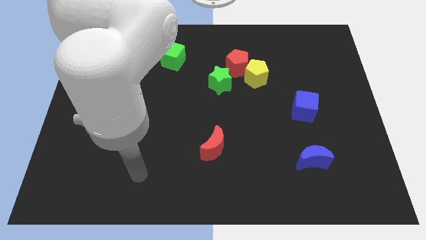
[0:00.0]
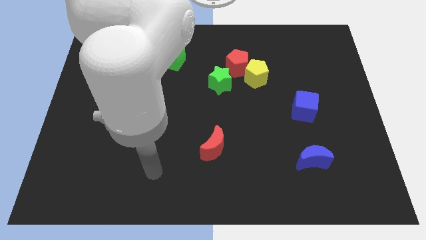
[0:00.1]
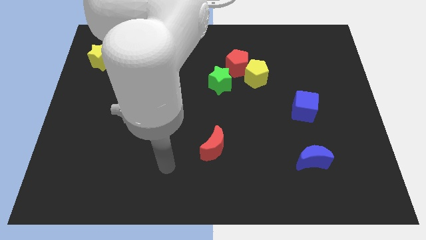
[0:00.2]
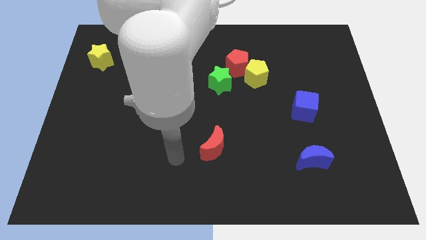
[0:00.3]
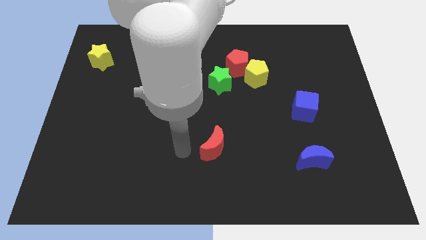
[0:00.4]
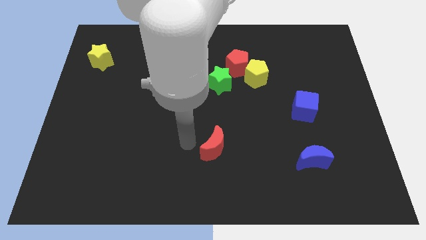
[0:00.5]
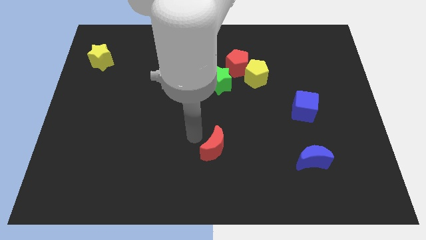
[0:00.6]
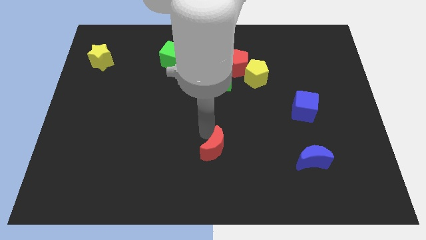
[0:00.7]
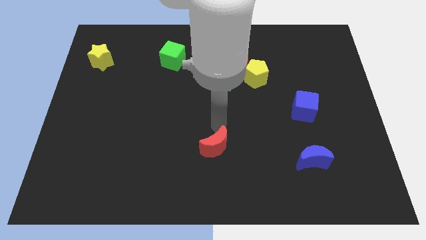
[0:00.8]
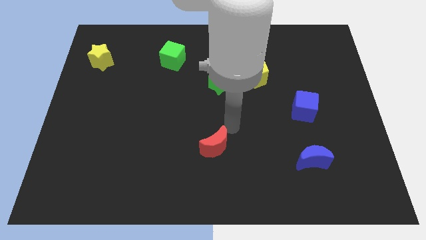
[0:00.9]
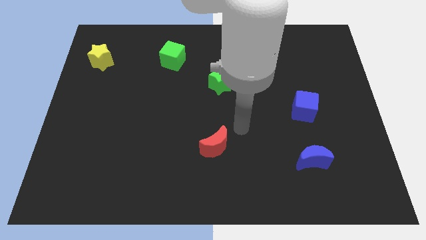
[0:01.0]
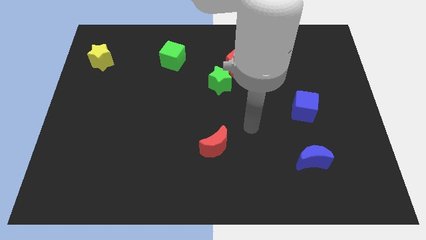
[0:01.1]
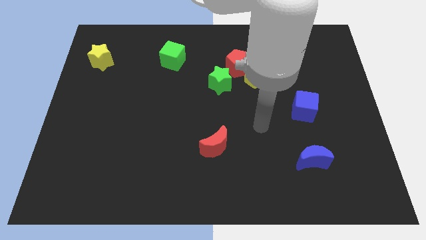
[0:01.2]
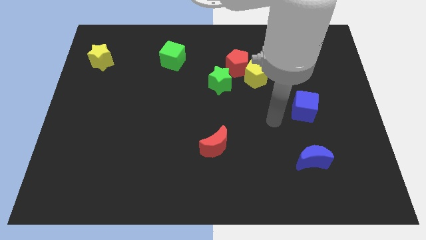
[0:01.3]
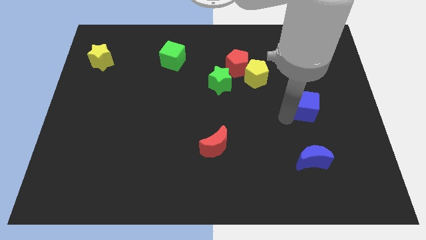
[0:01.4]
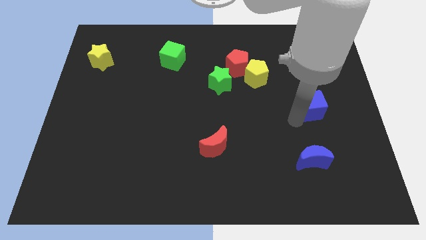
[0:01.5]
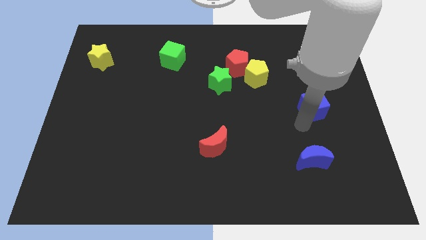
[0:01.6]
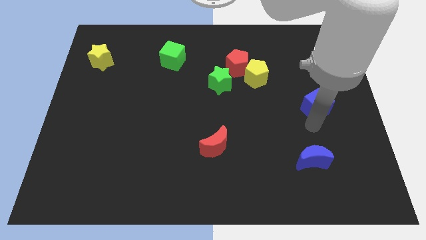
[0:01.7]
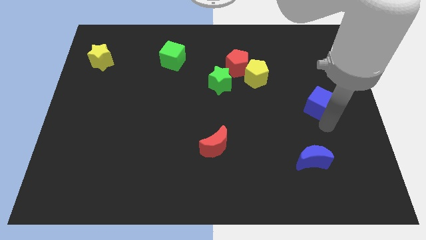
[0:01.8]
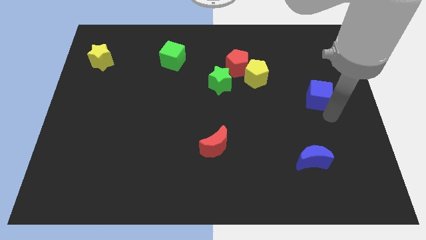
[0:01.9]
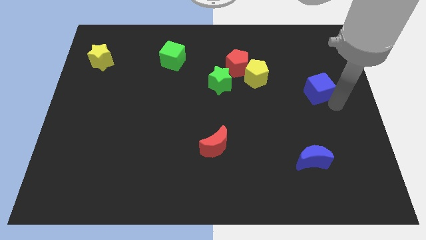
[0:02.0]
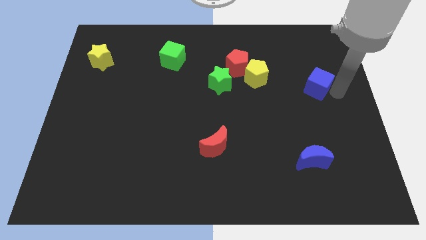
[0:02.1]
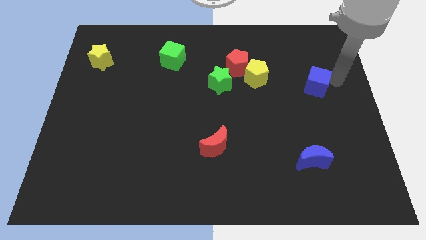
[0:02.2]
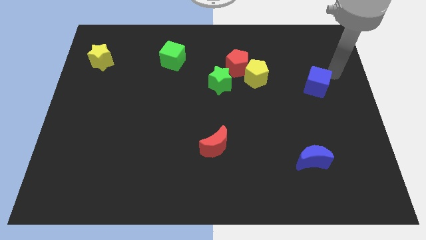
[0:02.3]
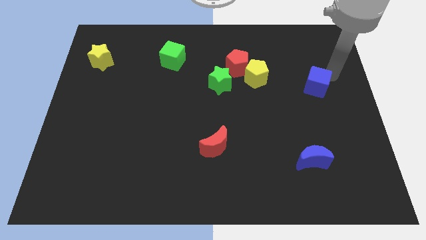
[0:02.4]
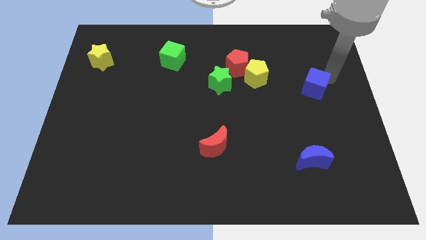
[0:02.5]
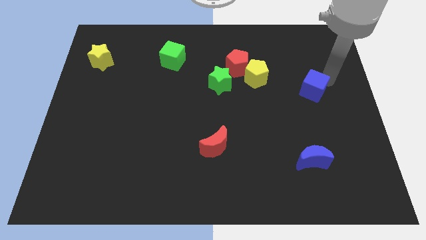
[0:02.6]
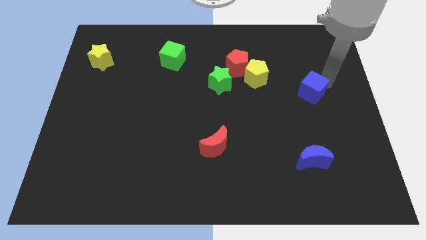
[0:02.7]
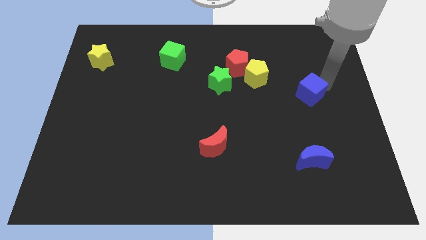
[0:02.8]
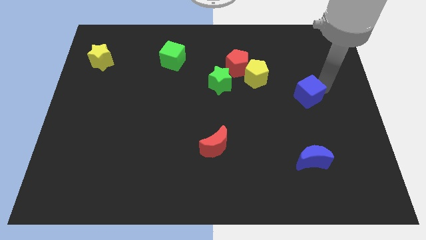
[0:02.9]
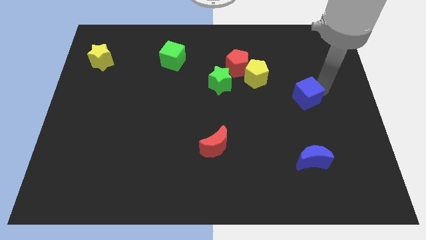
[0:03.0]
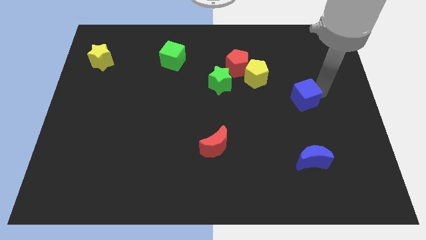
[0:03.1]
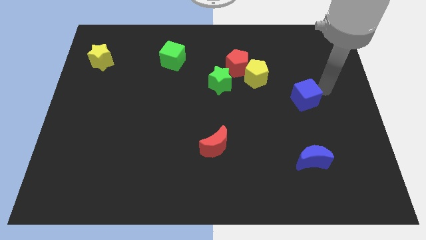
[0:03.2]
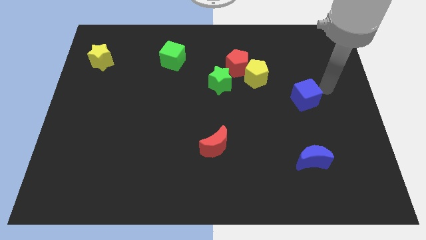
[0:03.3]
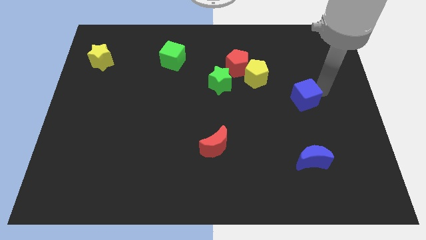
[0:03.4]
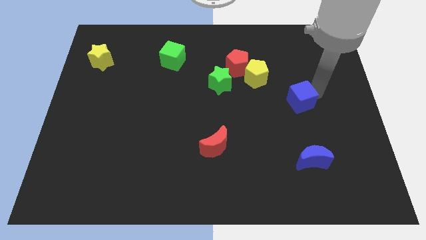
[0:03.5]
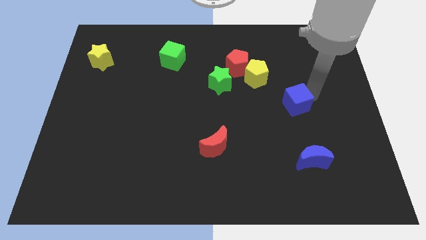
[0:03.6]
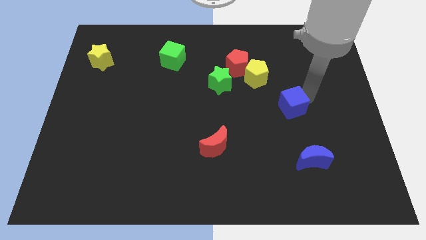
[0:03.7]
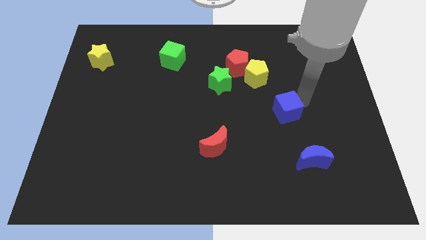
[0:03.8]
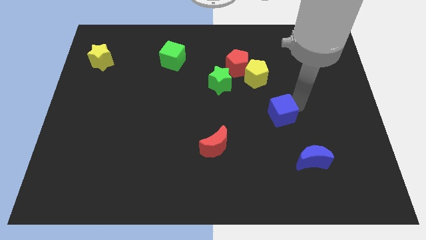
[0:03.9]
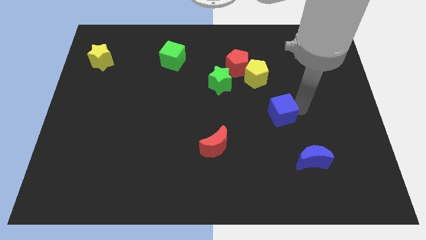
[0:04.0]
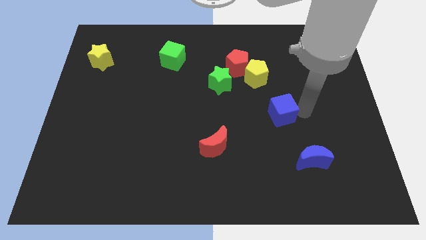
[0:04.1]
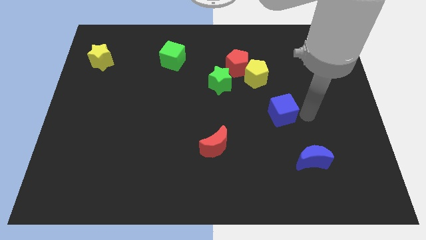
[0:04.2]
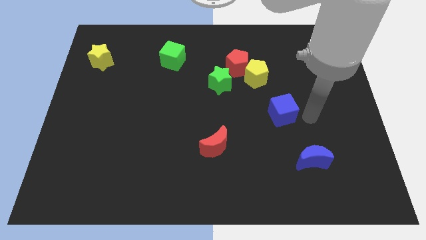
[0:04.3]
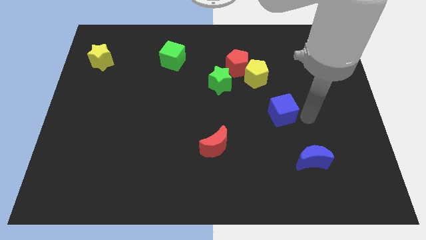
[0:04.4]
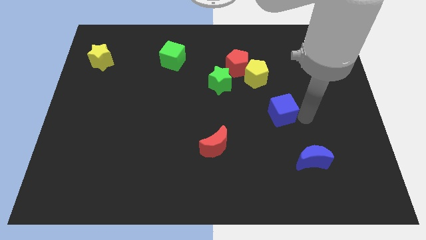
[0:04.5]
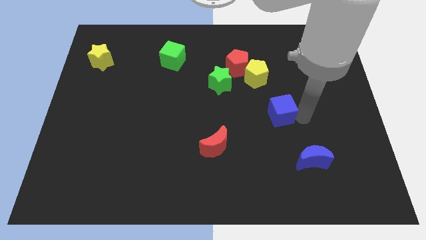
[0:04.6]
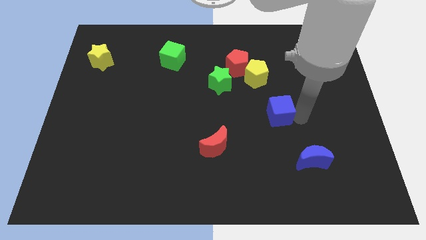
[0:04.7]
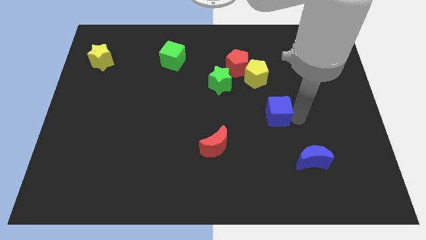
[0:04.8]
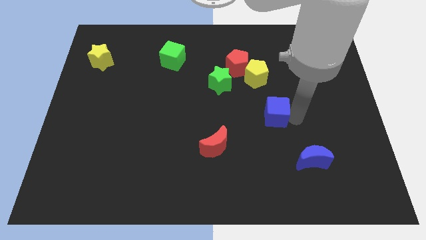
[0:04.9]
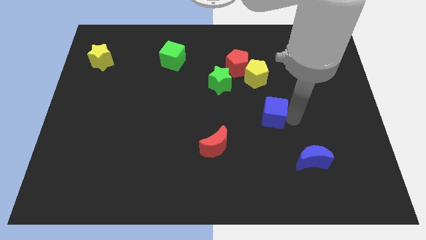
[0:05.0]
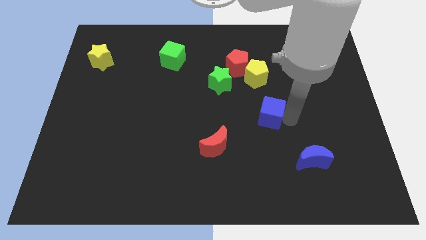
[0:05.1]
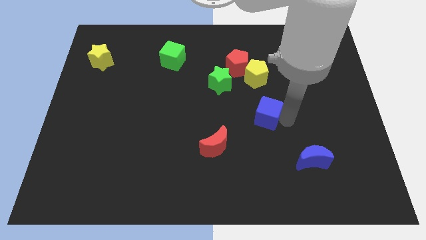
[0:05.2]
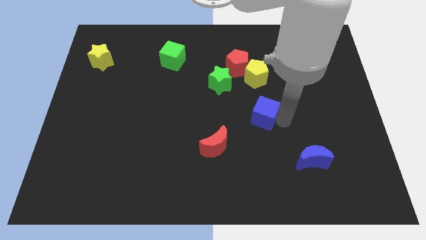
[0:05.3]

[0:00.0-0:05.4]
put the blue cube to the middle

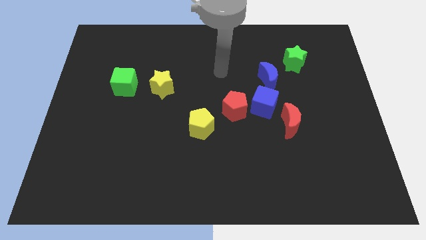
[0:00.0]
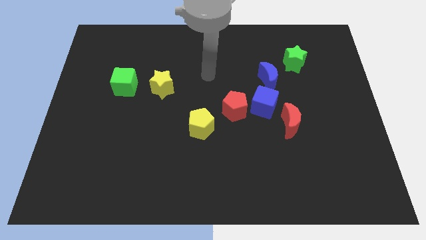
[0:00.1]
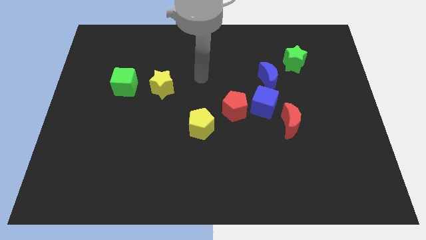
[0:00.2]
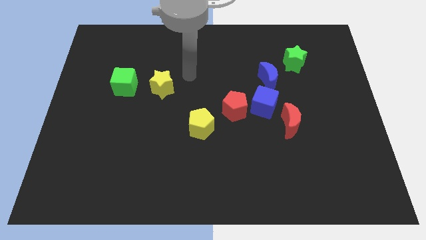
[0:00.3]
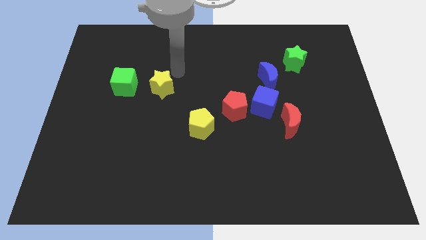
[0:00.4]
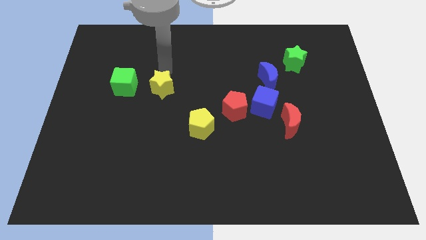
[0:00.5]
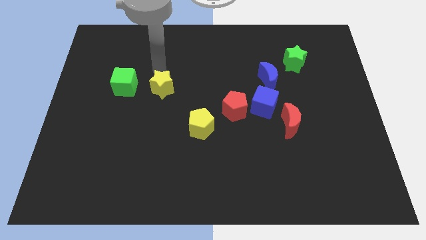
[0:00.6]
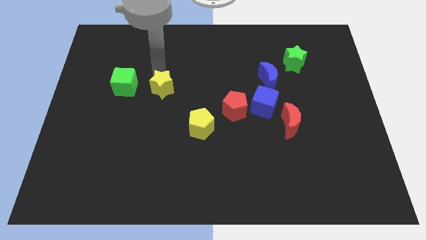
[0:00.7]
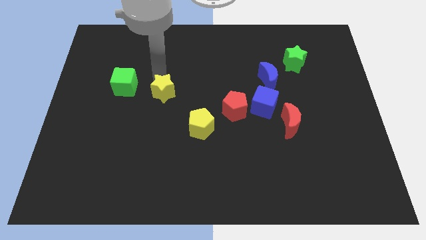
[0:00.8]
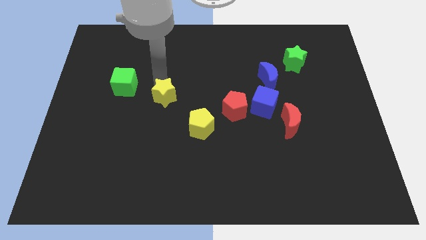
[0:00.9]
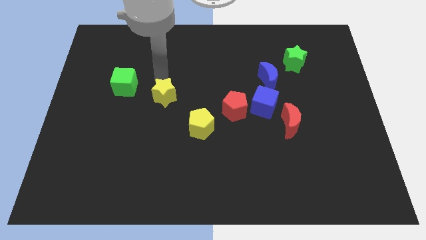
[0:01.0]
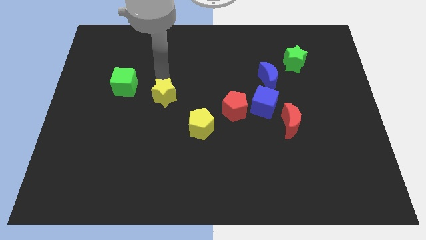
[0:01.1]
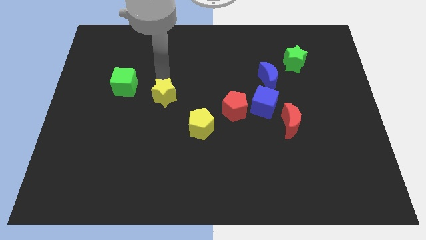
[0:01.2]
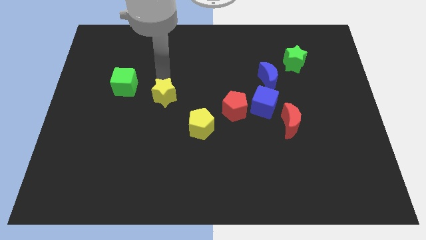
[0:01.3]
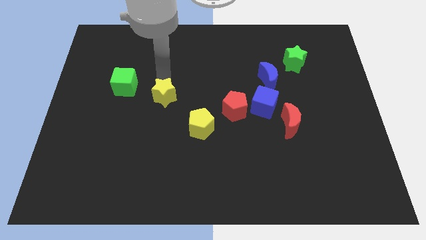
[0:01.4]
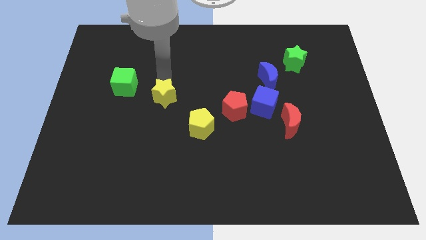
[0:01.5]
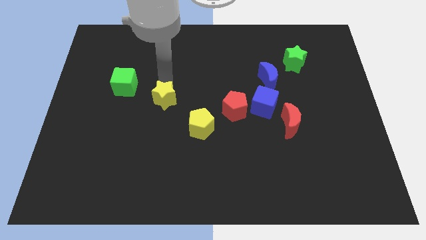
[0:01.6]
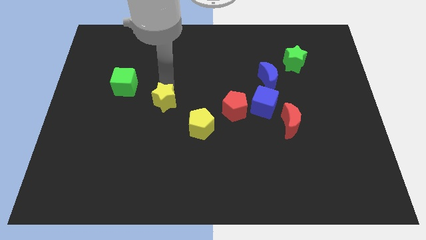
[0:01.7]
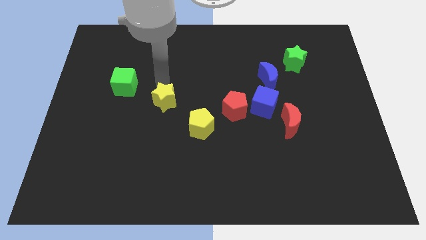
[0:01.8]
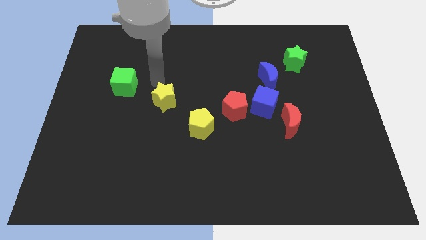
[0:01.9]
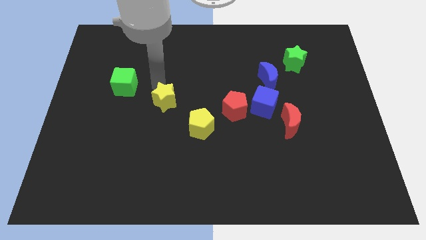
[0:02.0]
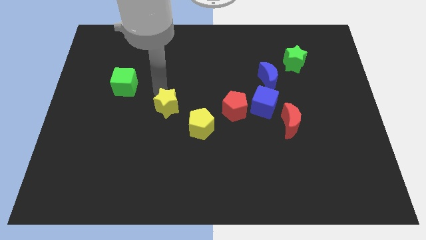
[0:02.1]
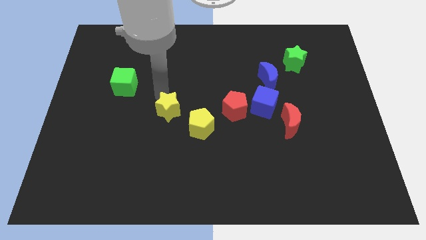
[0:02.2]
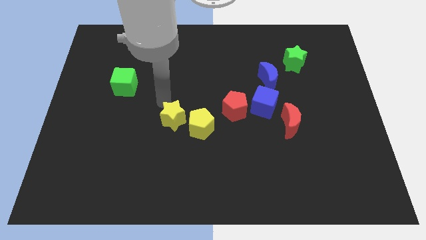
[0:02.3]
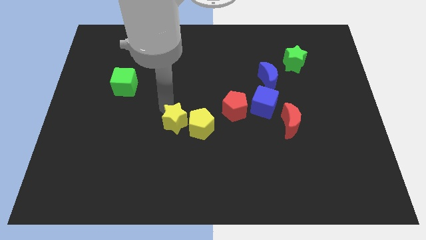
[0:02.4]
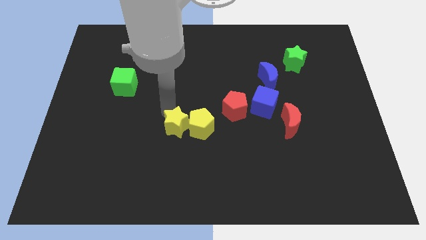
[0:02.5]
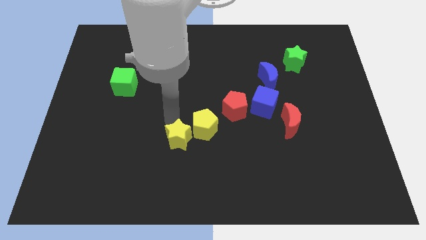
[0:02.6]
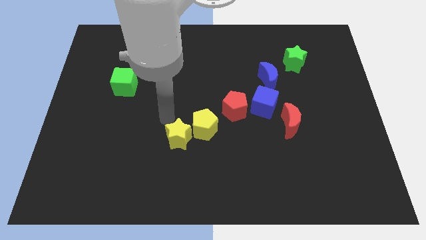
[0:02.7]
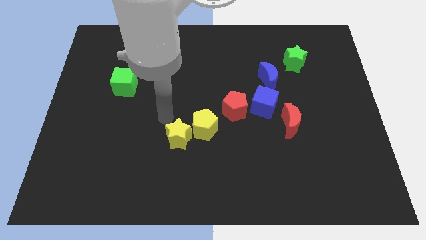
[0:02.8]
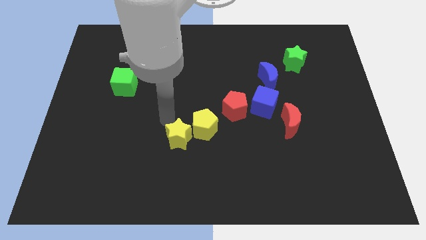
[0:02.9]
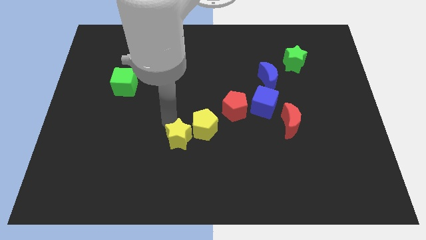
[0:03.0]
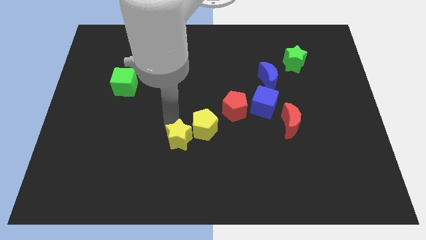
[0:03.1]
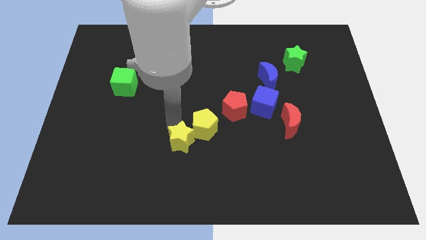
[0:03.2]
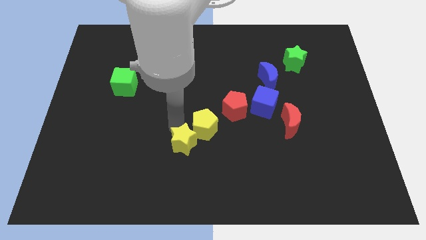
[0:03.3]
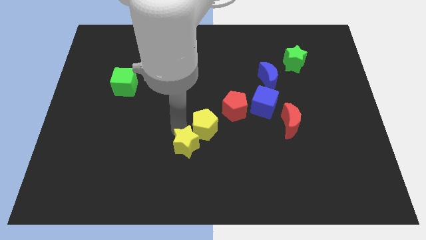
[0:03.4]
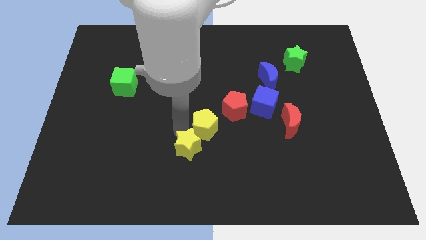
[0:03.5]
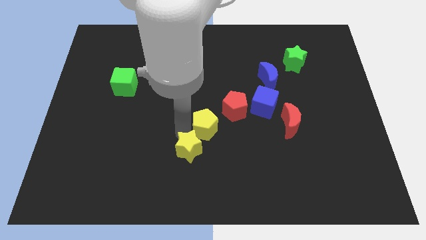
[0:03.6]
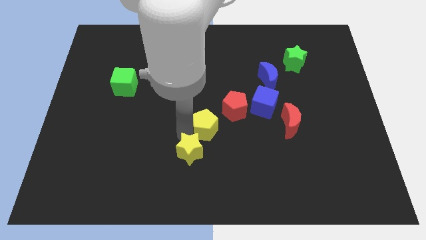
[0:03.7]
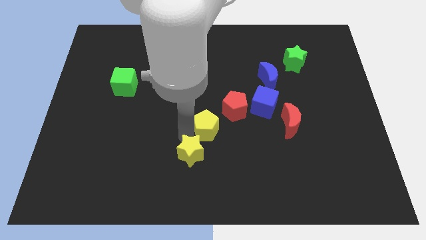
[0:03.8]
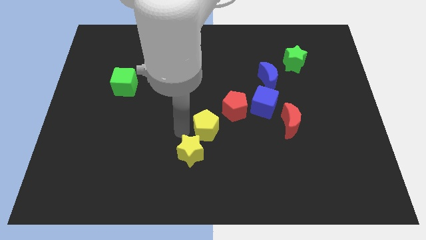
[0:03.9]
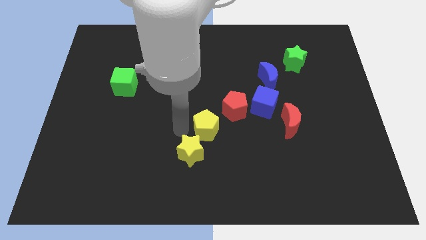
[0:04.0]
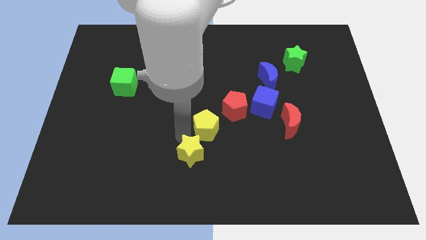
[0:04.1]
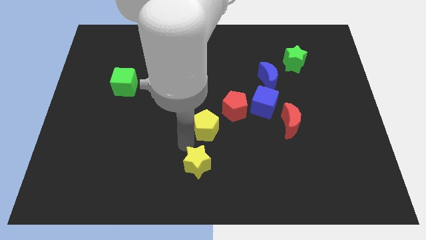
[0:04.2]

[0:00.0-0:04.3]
move the yellow star to the bottom
